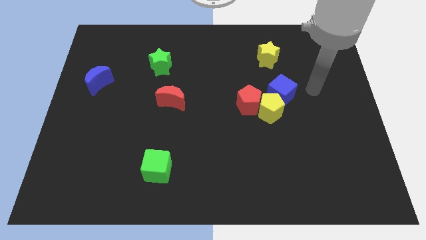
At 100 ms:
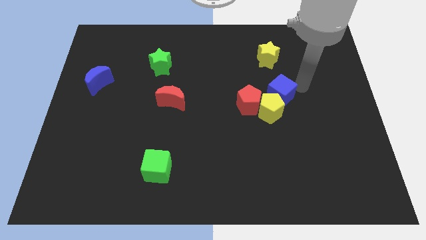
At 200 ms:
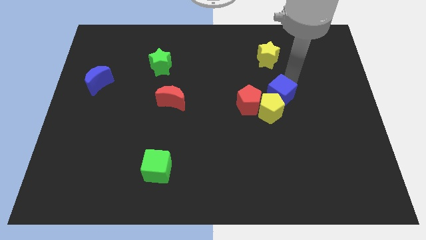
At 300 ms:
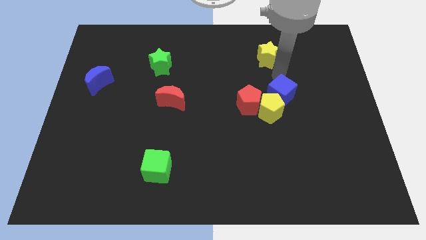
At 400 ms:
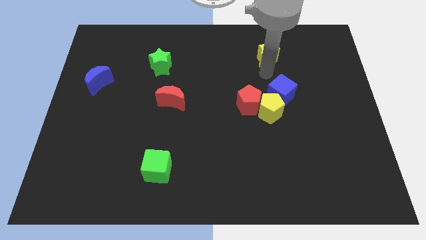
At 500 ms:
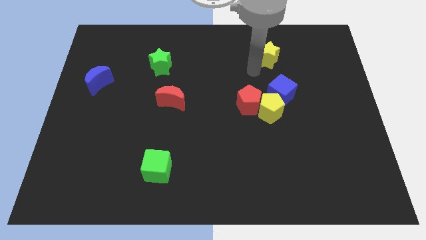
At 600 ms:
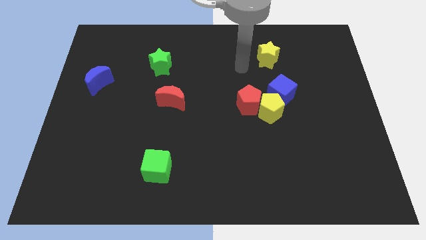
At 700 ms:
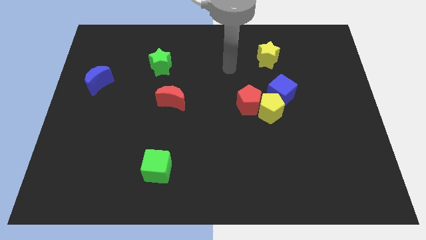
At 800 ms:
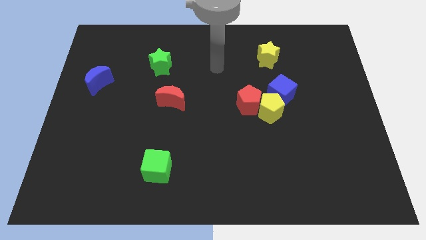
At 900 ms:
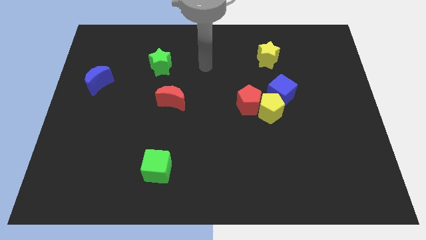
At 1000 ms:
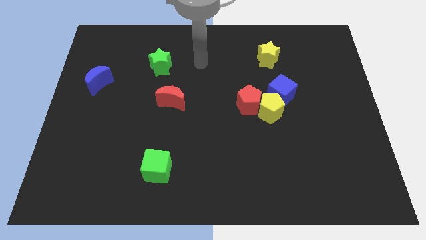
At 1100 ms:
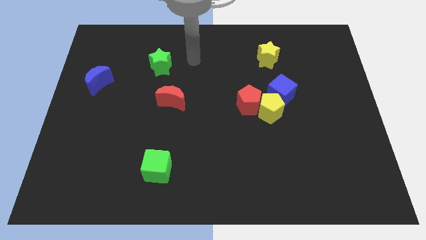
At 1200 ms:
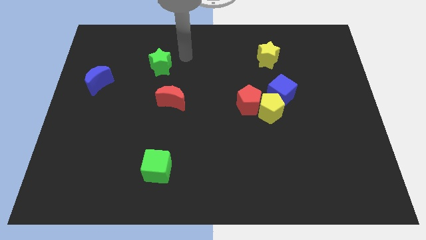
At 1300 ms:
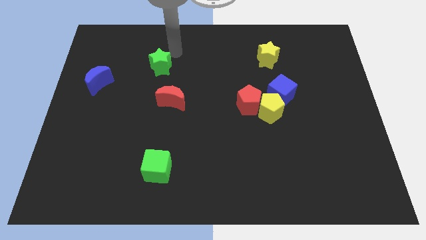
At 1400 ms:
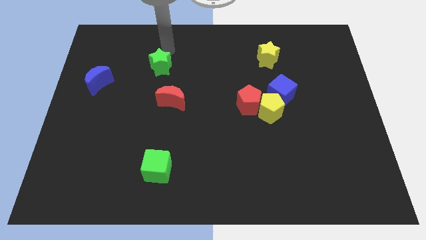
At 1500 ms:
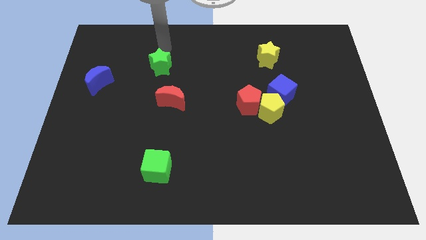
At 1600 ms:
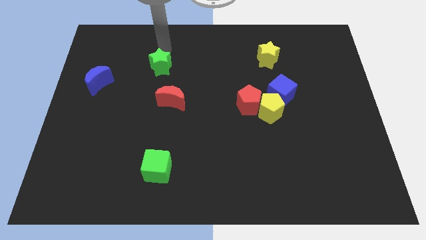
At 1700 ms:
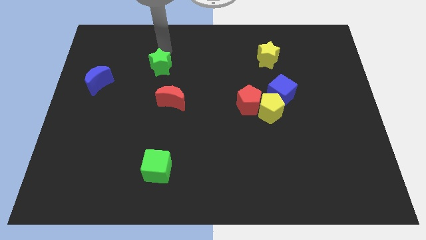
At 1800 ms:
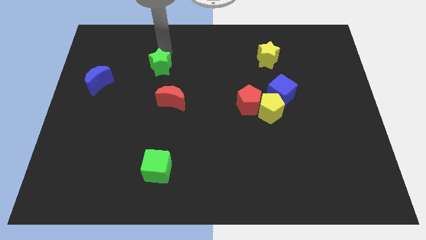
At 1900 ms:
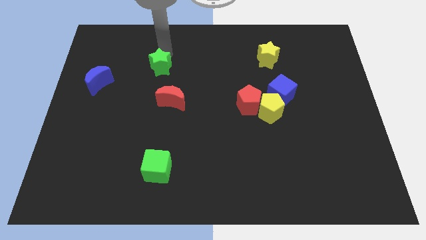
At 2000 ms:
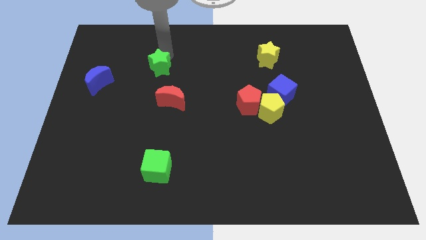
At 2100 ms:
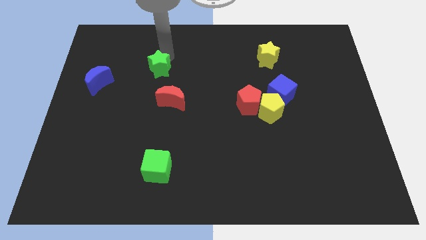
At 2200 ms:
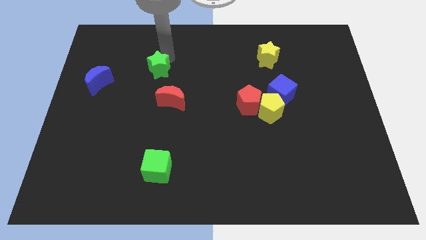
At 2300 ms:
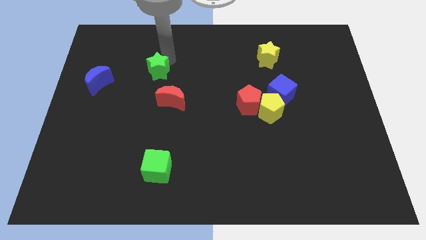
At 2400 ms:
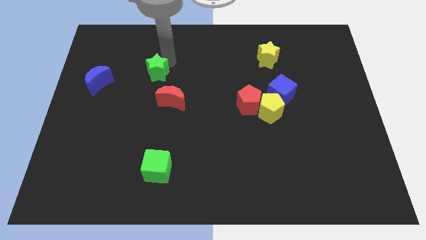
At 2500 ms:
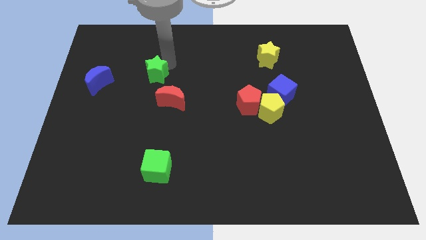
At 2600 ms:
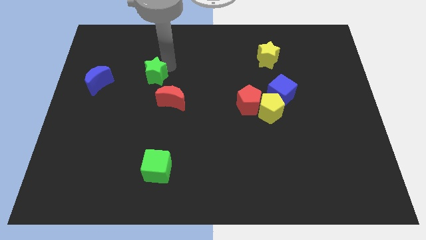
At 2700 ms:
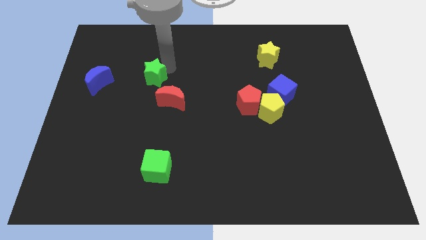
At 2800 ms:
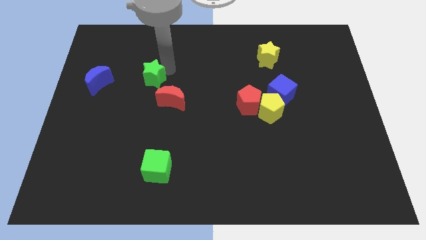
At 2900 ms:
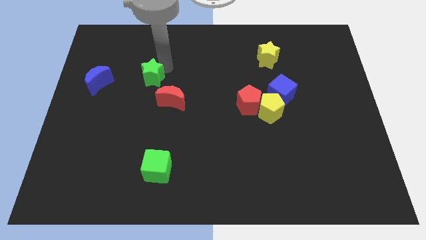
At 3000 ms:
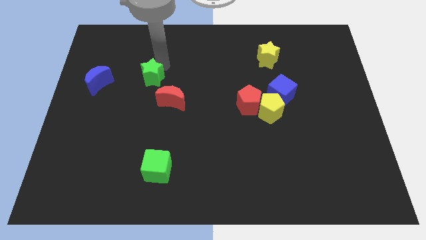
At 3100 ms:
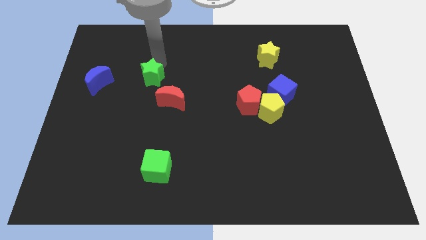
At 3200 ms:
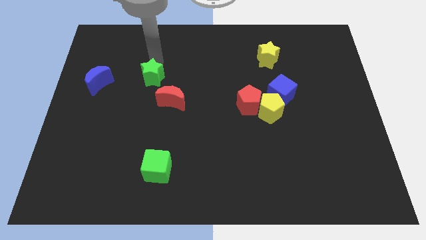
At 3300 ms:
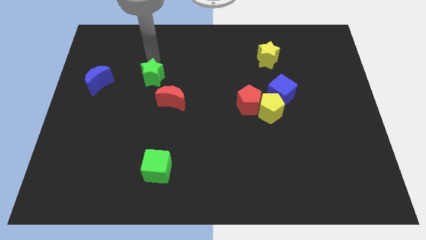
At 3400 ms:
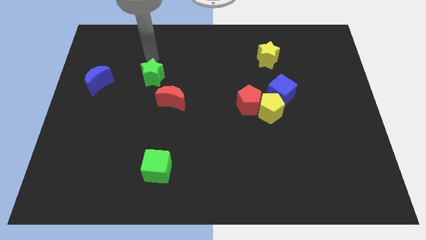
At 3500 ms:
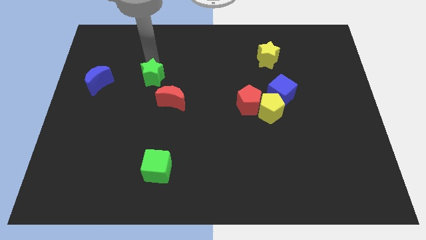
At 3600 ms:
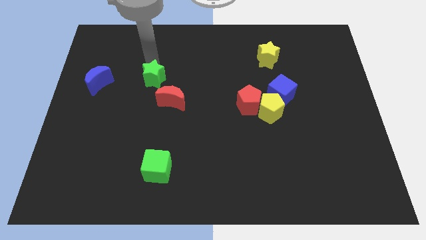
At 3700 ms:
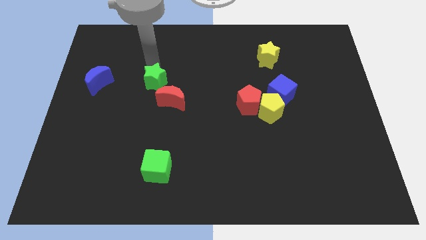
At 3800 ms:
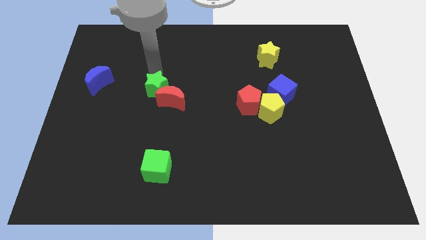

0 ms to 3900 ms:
slightly push the green star downwards

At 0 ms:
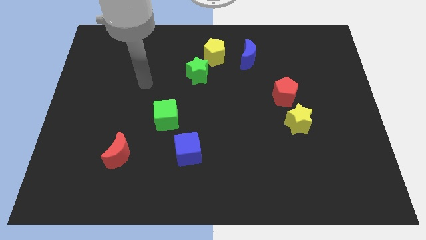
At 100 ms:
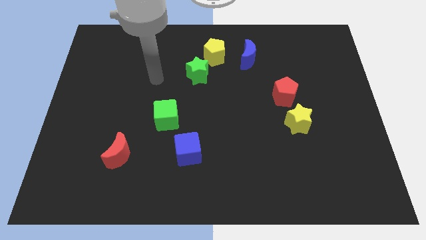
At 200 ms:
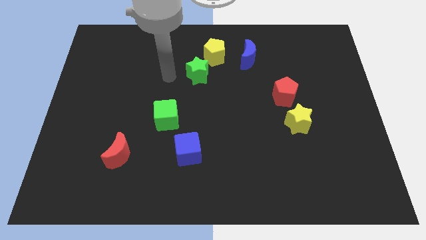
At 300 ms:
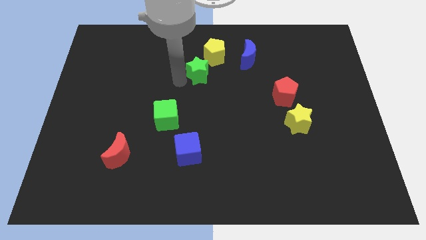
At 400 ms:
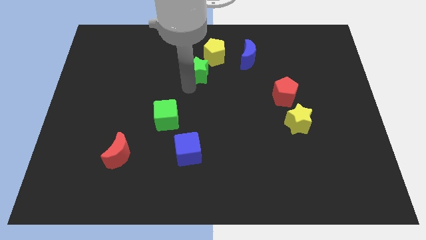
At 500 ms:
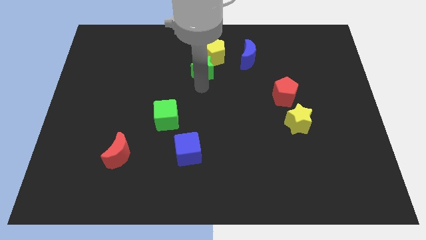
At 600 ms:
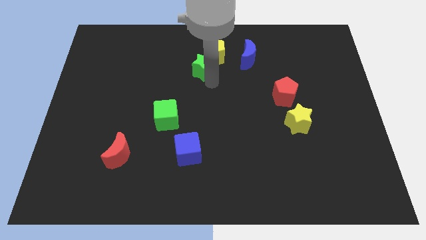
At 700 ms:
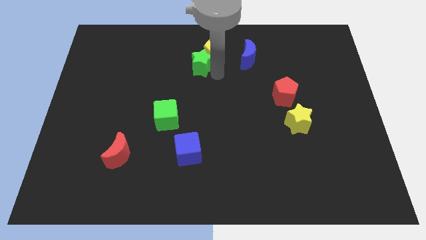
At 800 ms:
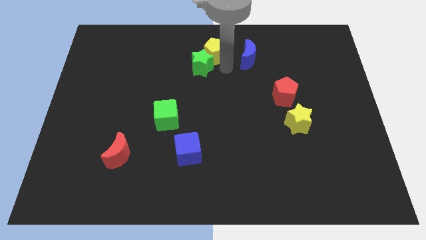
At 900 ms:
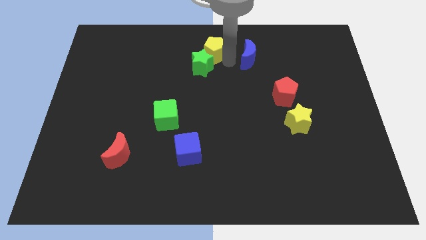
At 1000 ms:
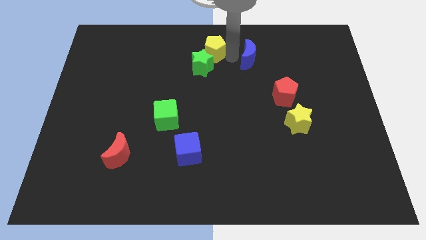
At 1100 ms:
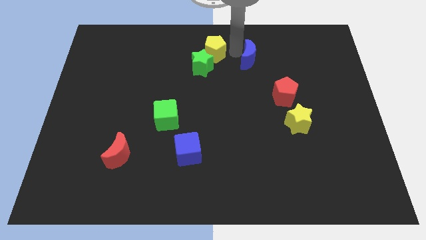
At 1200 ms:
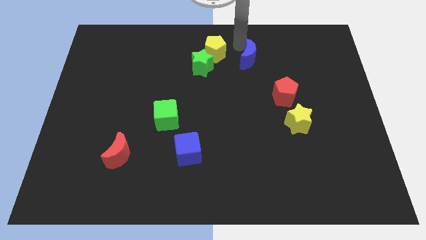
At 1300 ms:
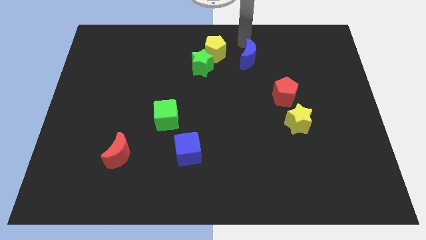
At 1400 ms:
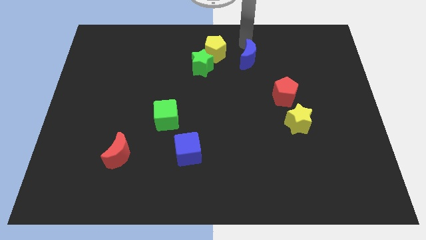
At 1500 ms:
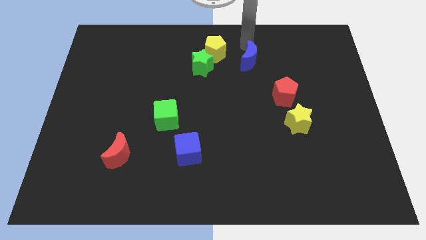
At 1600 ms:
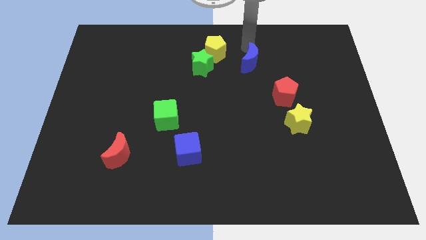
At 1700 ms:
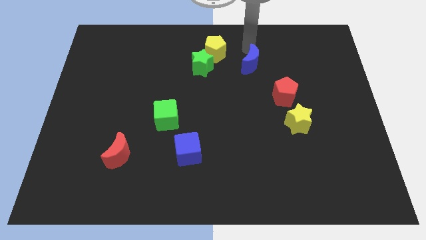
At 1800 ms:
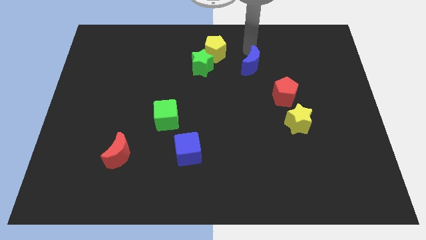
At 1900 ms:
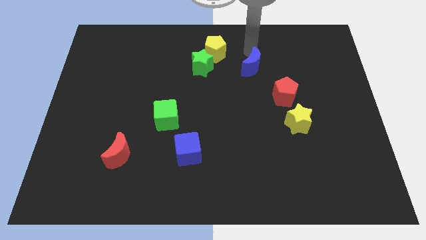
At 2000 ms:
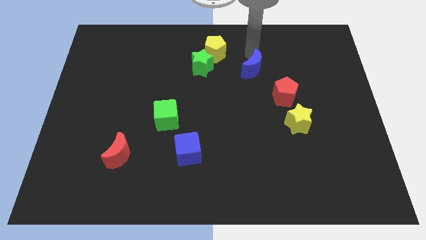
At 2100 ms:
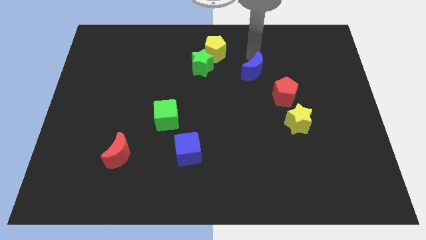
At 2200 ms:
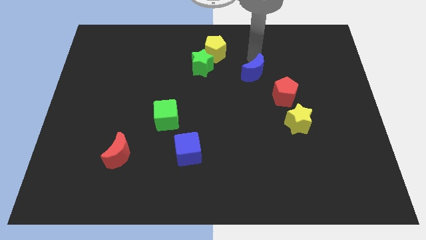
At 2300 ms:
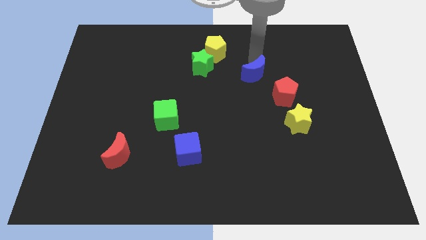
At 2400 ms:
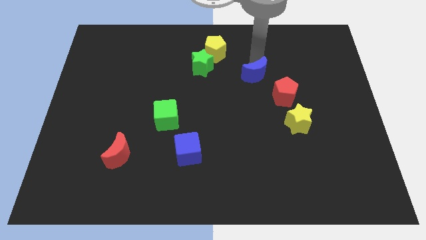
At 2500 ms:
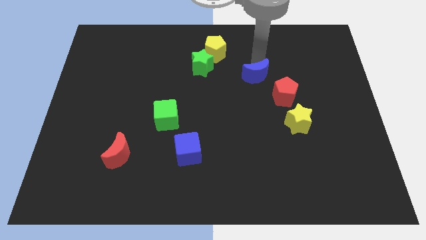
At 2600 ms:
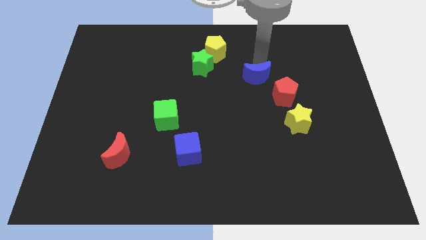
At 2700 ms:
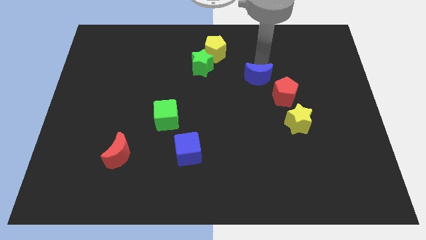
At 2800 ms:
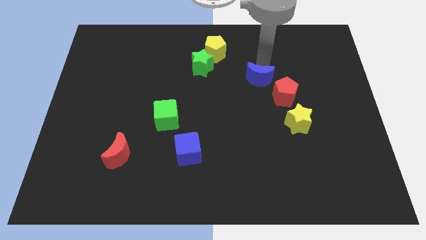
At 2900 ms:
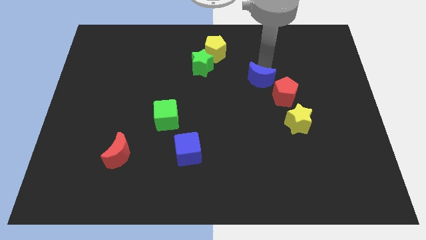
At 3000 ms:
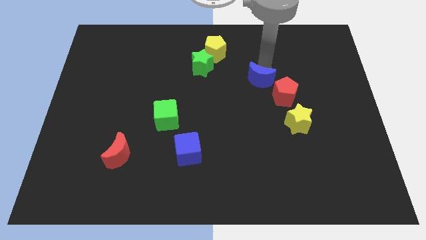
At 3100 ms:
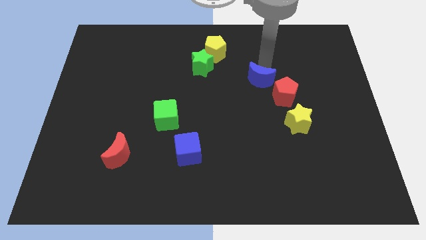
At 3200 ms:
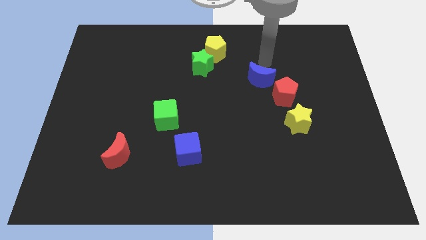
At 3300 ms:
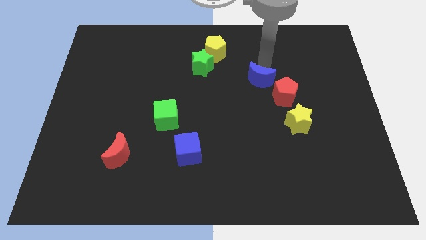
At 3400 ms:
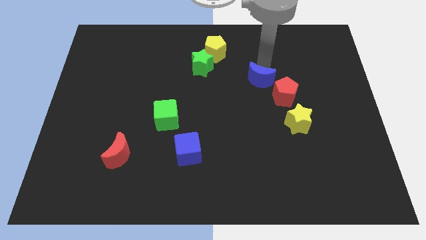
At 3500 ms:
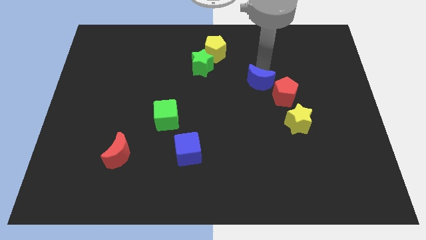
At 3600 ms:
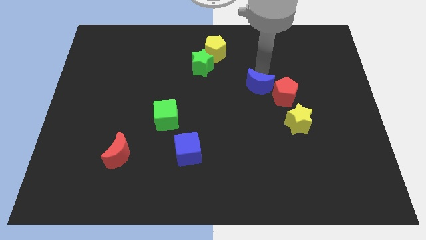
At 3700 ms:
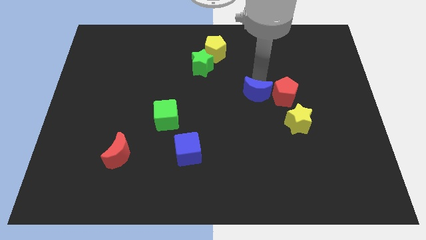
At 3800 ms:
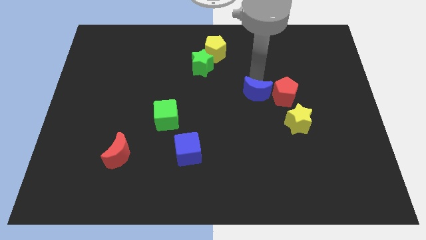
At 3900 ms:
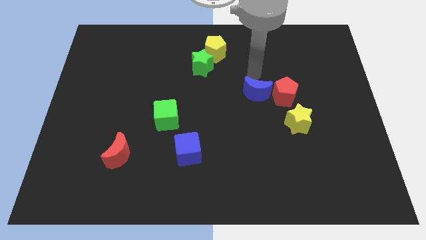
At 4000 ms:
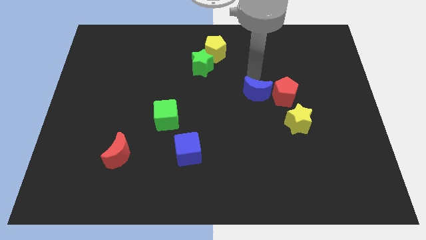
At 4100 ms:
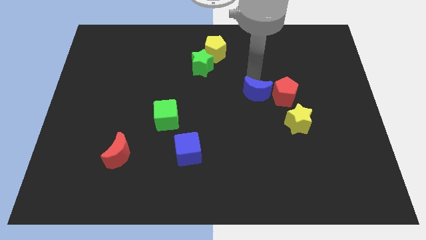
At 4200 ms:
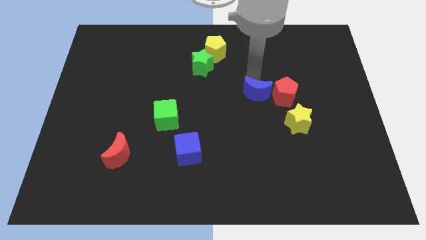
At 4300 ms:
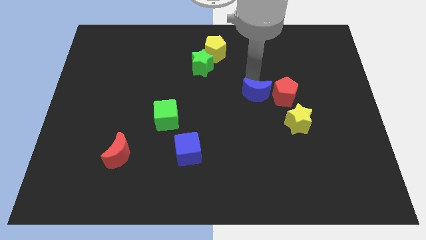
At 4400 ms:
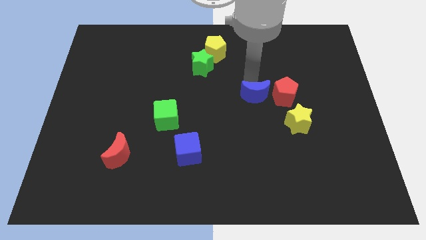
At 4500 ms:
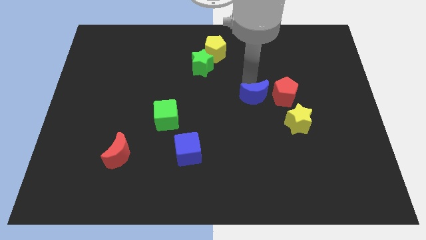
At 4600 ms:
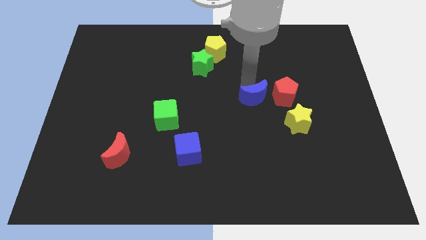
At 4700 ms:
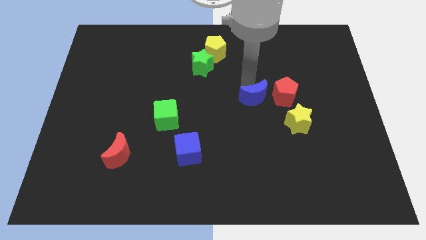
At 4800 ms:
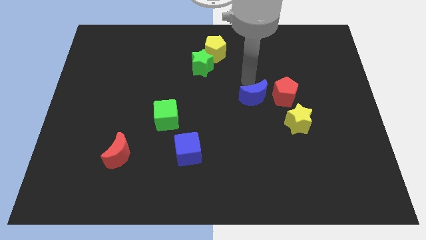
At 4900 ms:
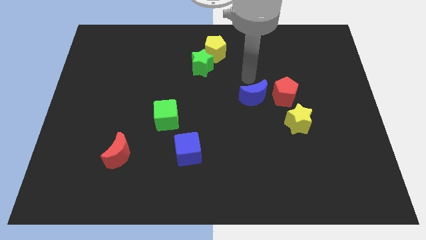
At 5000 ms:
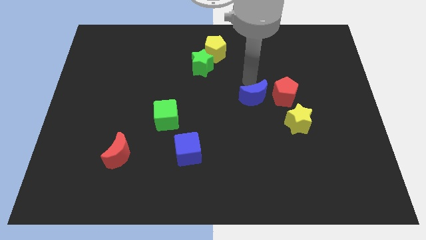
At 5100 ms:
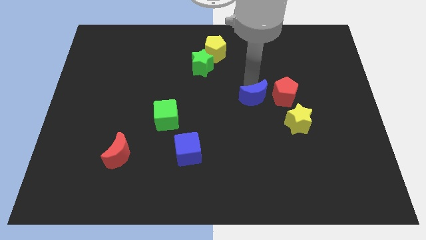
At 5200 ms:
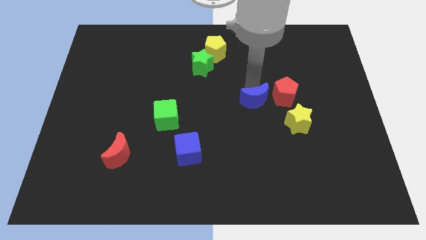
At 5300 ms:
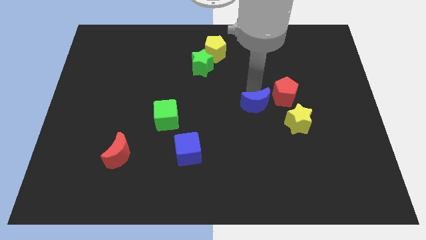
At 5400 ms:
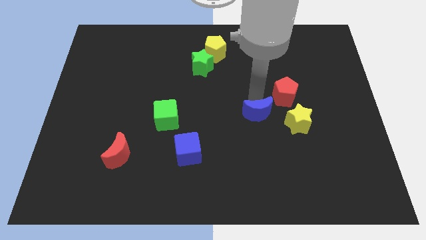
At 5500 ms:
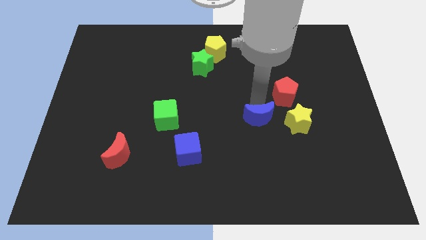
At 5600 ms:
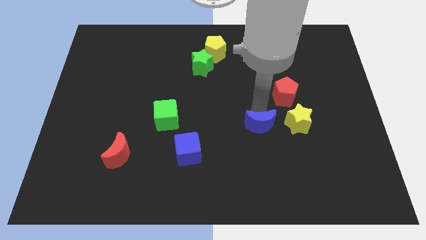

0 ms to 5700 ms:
push the blue moon down
